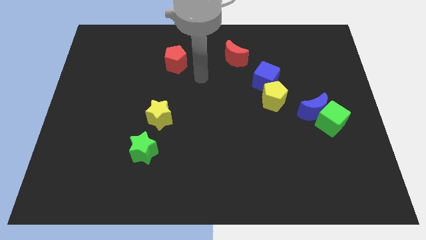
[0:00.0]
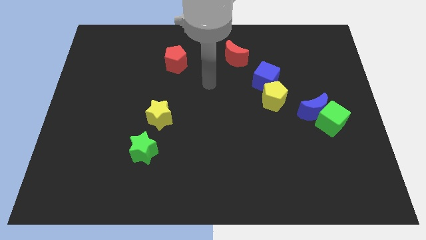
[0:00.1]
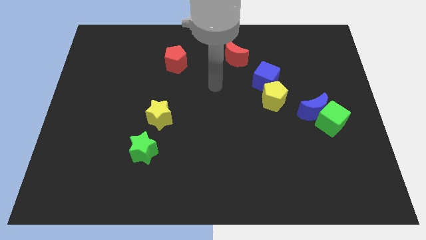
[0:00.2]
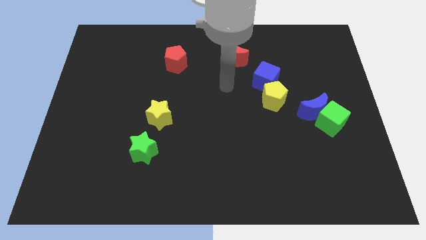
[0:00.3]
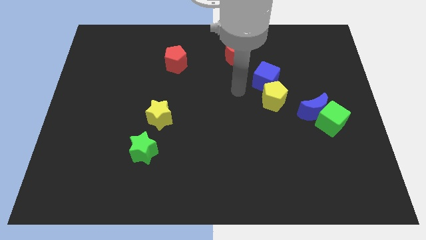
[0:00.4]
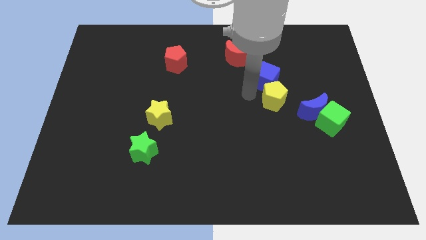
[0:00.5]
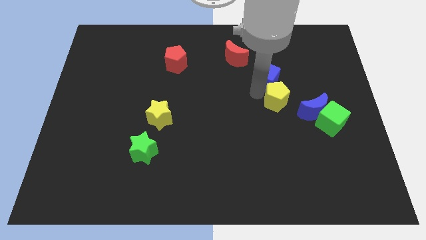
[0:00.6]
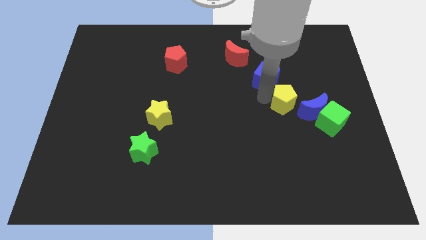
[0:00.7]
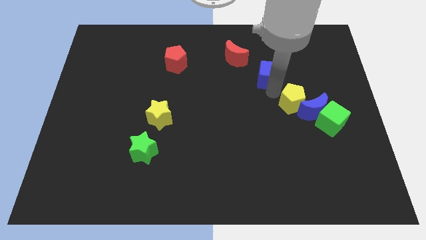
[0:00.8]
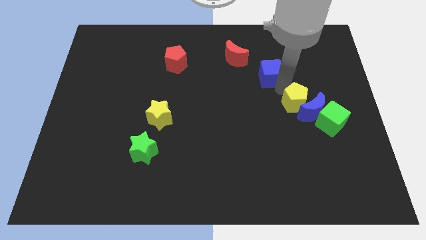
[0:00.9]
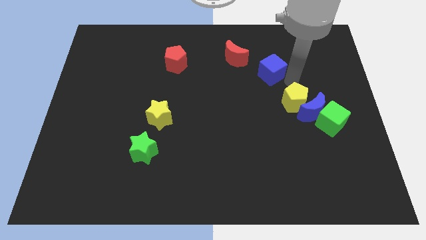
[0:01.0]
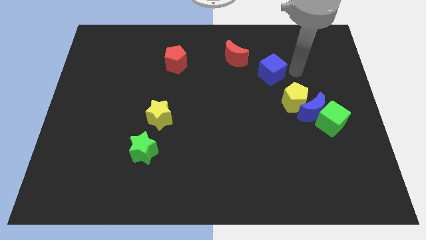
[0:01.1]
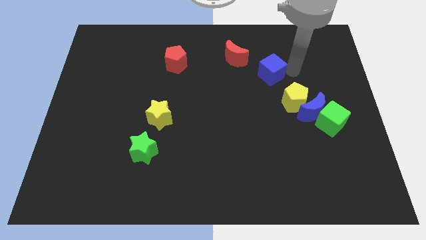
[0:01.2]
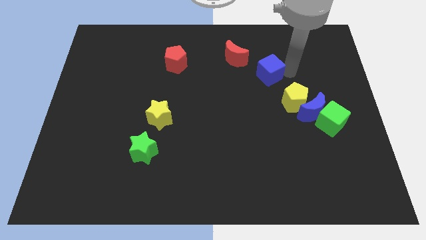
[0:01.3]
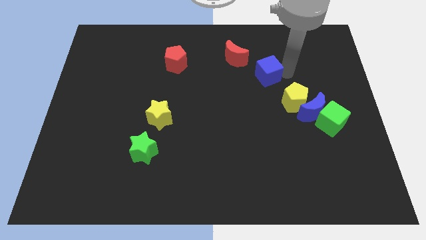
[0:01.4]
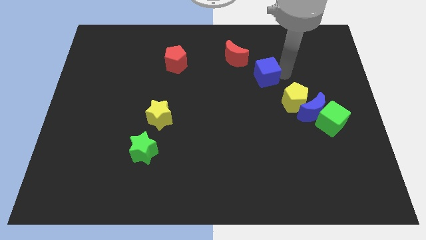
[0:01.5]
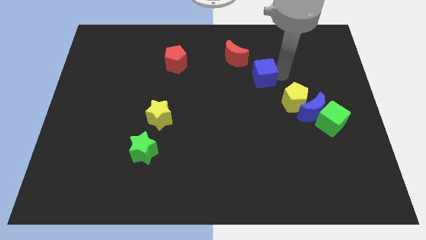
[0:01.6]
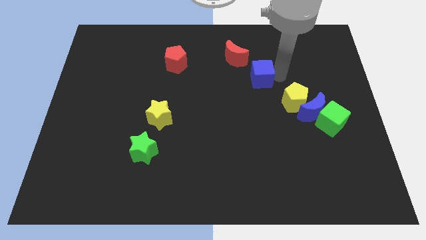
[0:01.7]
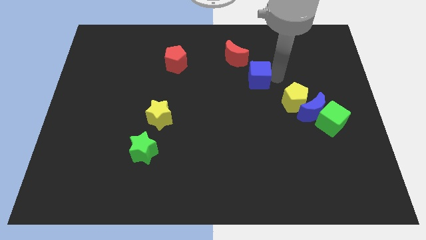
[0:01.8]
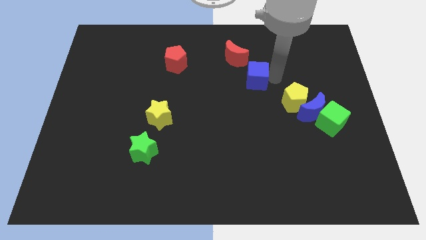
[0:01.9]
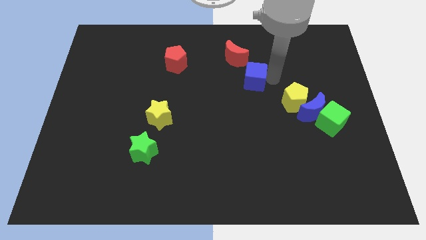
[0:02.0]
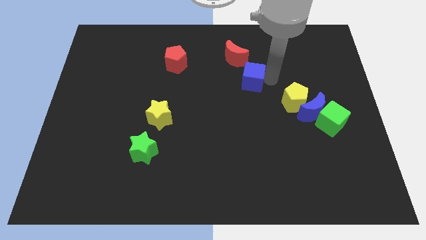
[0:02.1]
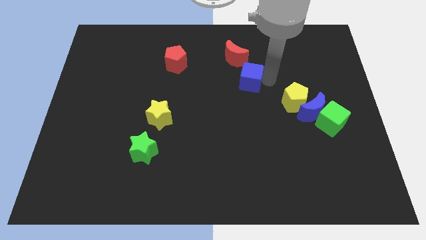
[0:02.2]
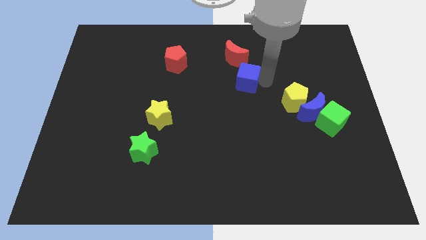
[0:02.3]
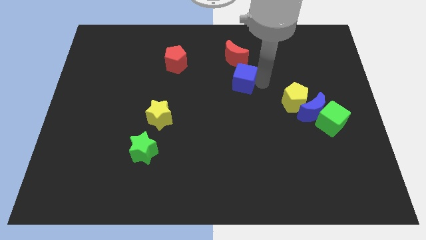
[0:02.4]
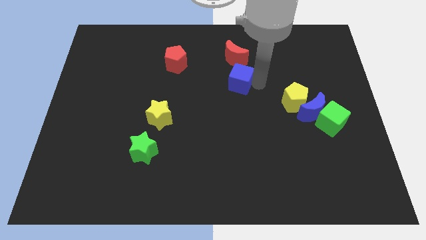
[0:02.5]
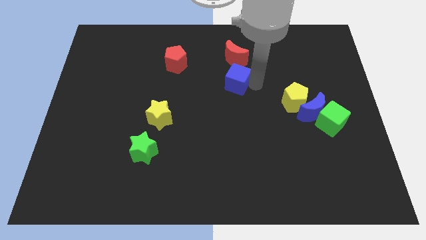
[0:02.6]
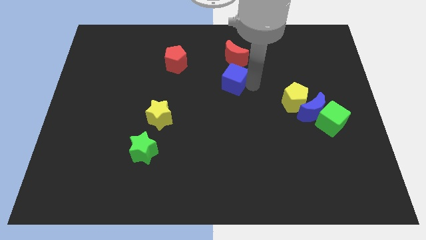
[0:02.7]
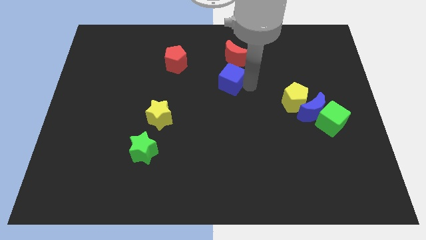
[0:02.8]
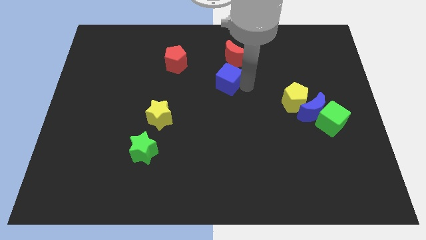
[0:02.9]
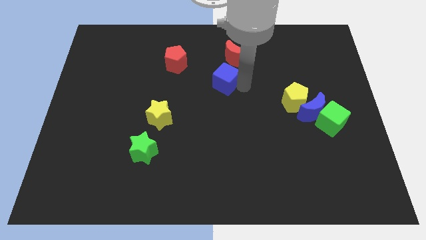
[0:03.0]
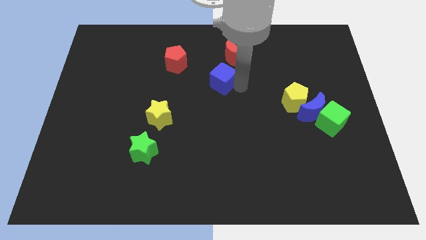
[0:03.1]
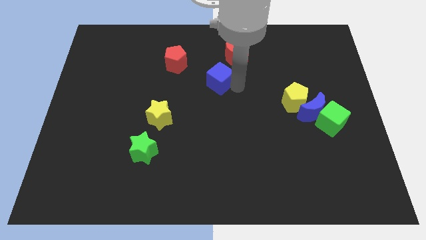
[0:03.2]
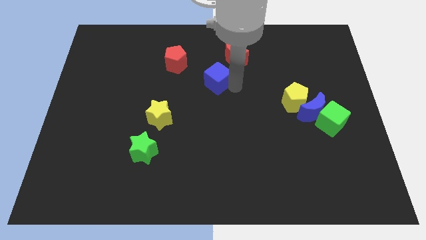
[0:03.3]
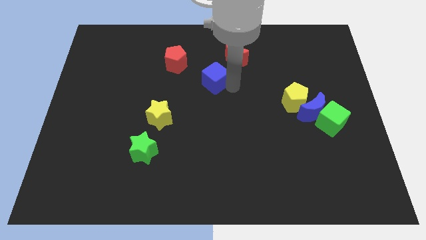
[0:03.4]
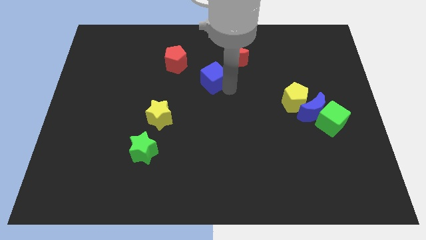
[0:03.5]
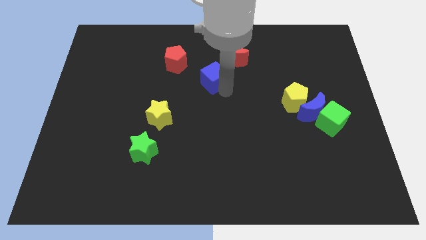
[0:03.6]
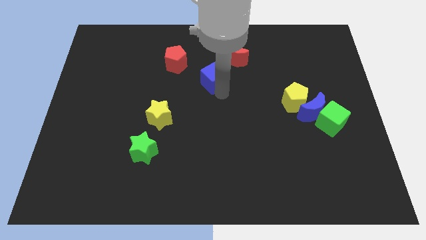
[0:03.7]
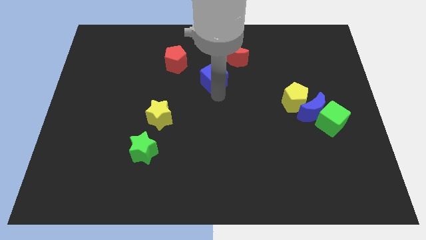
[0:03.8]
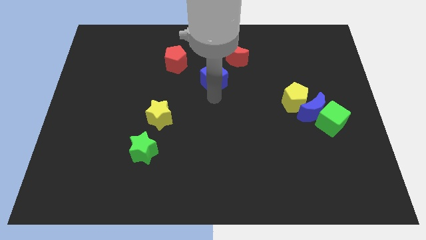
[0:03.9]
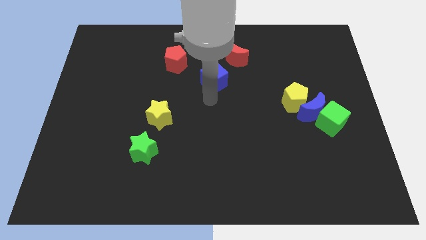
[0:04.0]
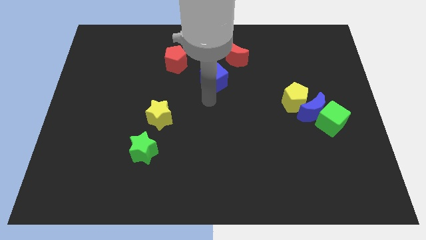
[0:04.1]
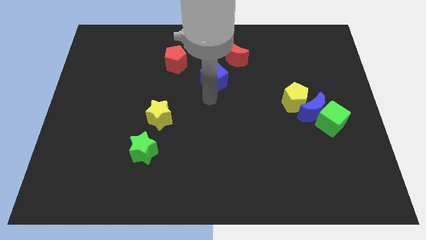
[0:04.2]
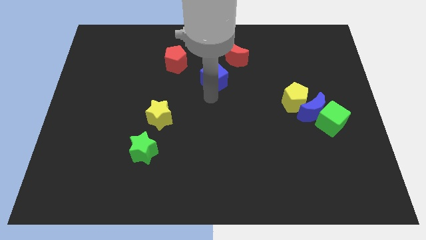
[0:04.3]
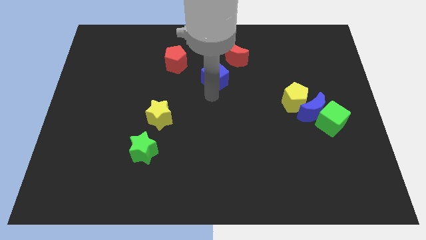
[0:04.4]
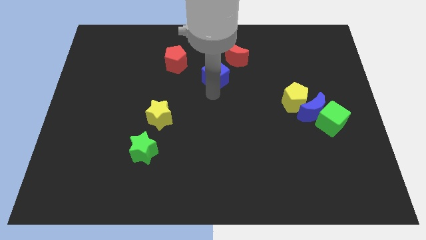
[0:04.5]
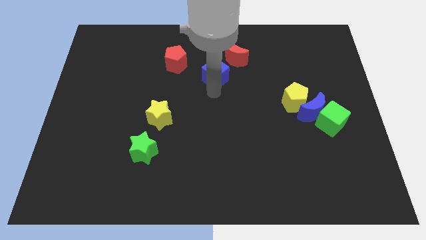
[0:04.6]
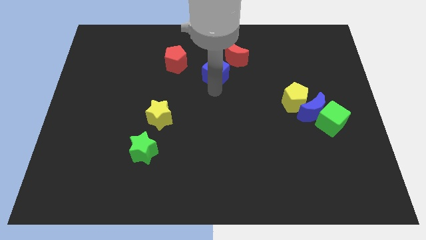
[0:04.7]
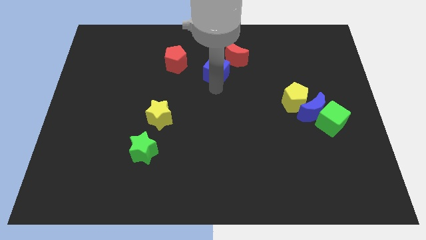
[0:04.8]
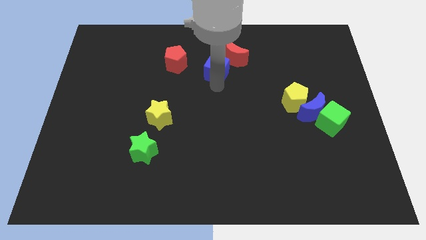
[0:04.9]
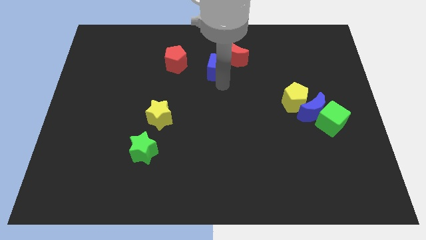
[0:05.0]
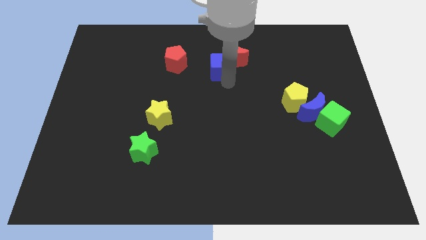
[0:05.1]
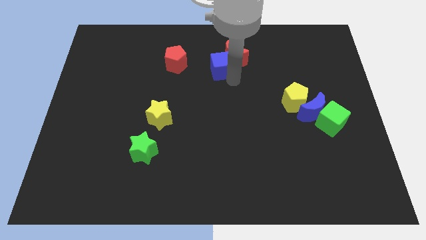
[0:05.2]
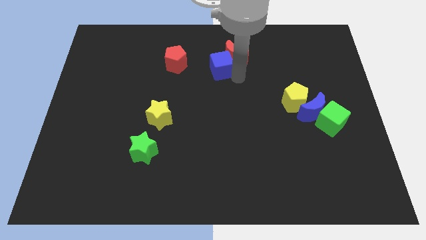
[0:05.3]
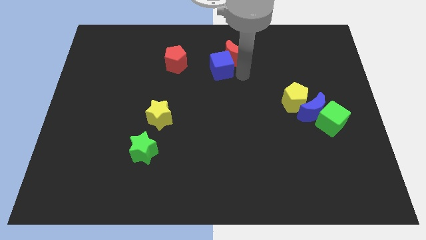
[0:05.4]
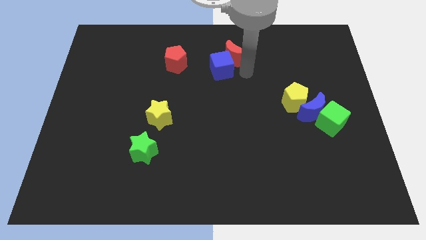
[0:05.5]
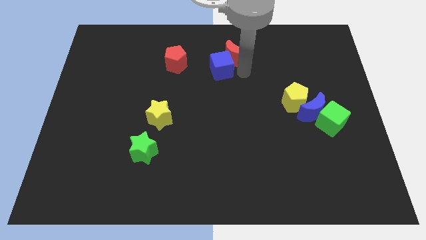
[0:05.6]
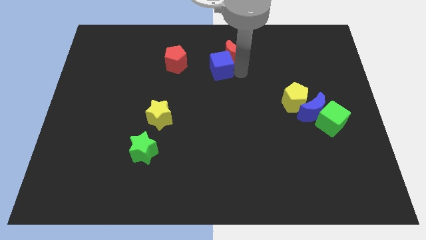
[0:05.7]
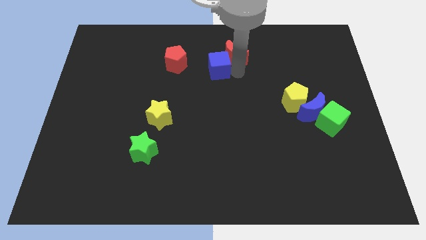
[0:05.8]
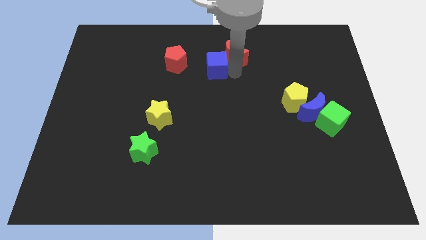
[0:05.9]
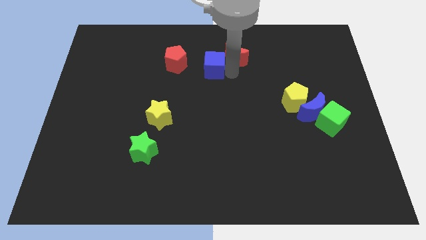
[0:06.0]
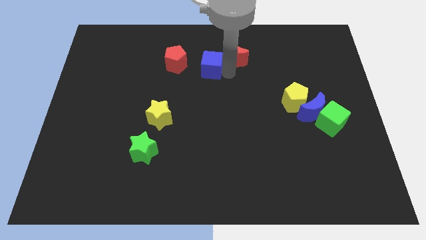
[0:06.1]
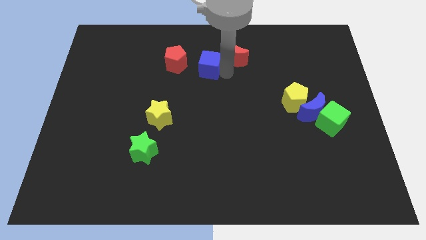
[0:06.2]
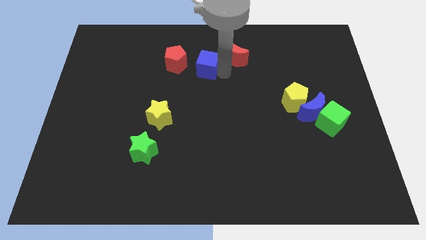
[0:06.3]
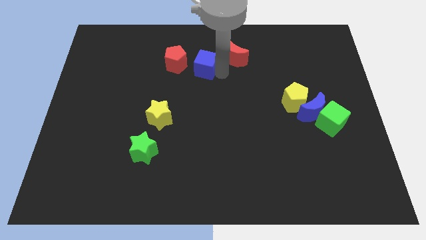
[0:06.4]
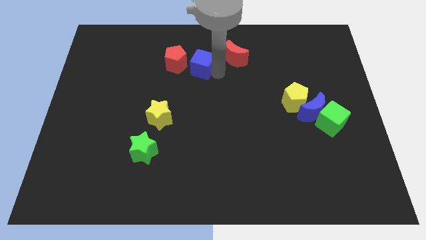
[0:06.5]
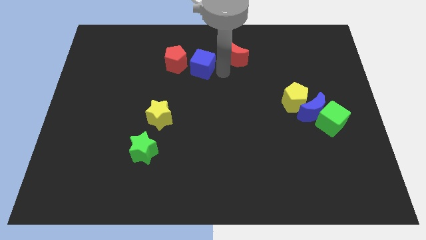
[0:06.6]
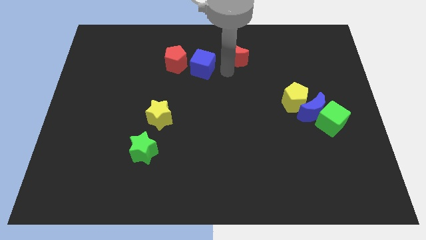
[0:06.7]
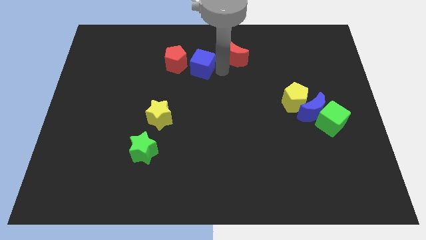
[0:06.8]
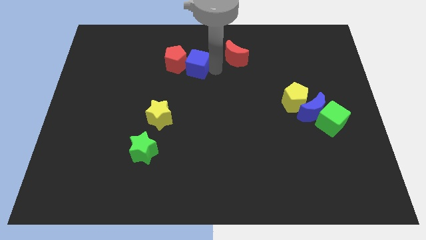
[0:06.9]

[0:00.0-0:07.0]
push the blue cube next to the red pentagon
